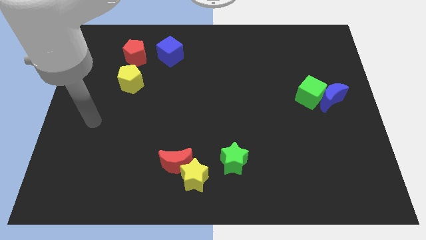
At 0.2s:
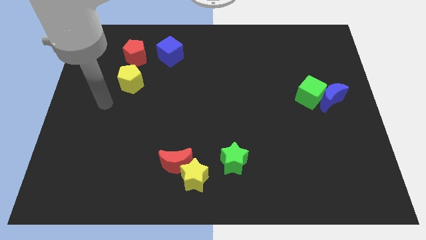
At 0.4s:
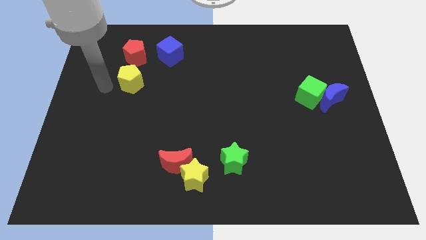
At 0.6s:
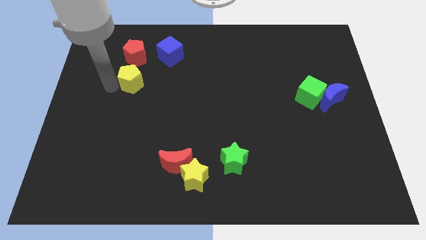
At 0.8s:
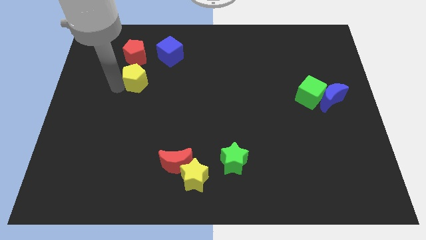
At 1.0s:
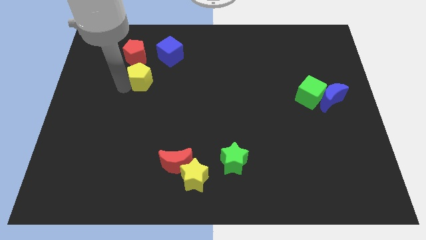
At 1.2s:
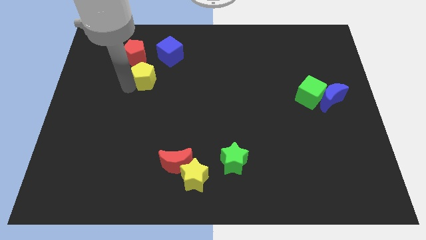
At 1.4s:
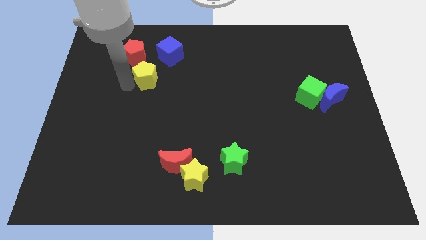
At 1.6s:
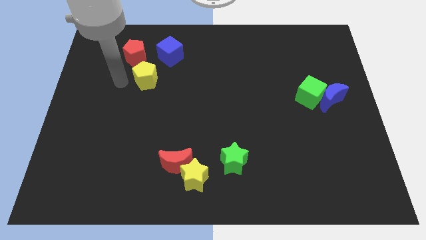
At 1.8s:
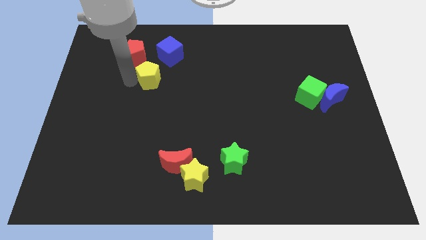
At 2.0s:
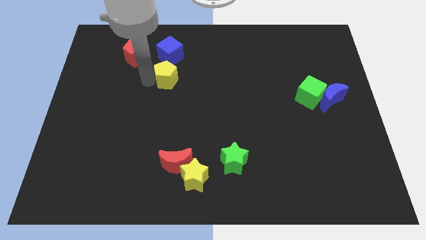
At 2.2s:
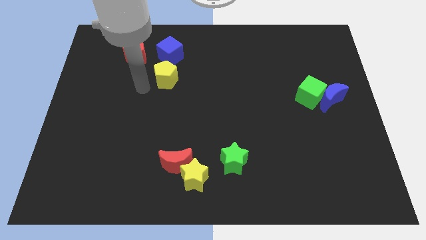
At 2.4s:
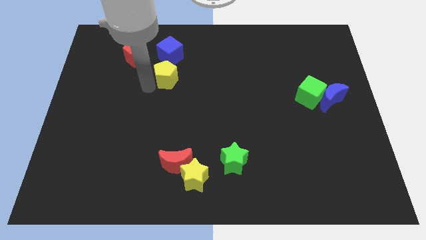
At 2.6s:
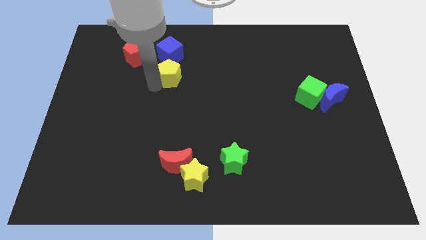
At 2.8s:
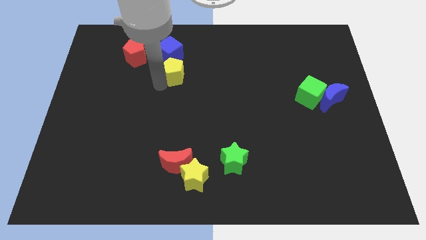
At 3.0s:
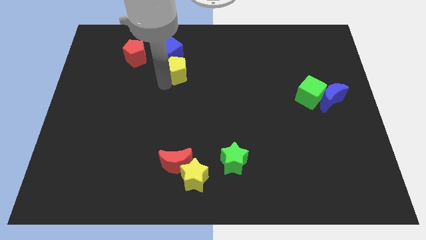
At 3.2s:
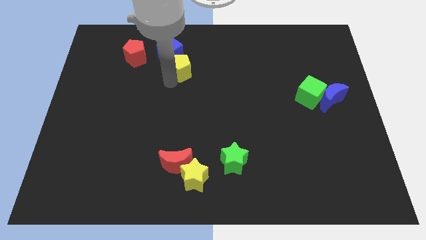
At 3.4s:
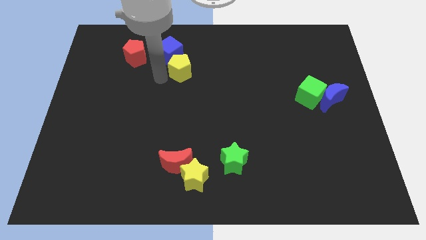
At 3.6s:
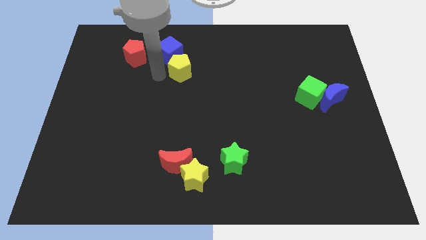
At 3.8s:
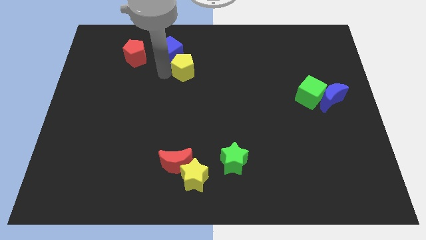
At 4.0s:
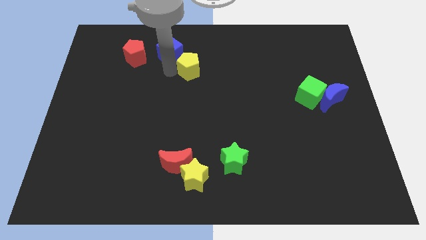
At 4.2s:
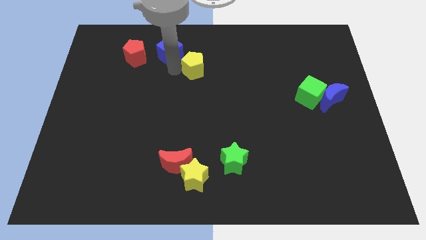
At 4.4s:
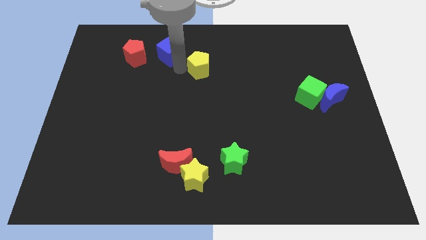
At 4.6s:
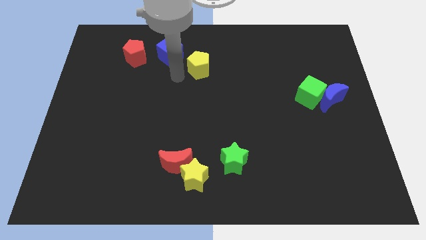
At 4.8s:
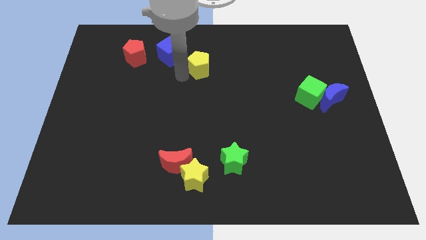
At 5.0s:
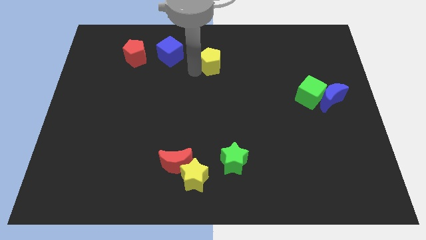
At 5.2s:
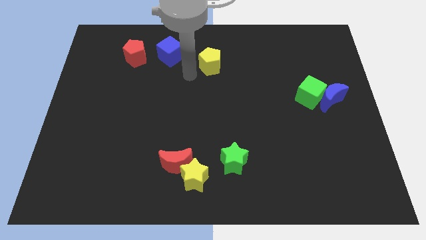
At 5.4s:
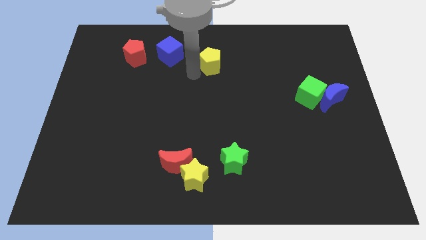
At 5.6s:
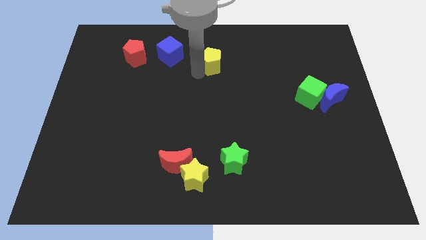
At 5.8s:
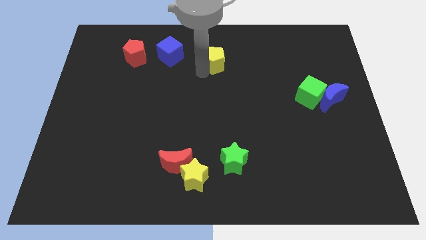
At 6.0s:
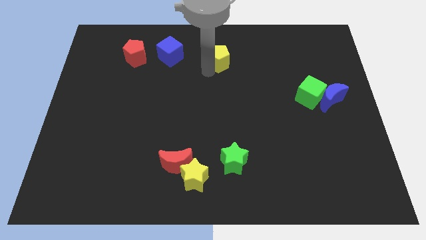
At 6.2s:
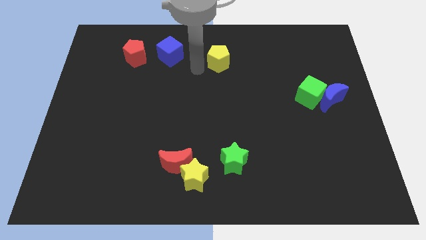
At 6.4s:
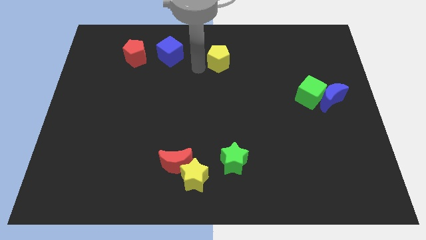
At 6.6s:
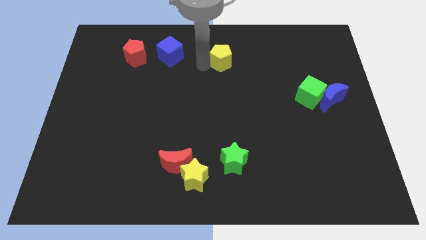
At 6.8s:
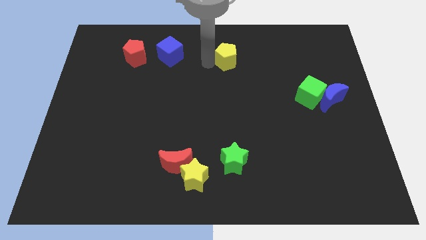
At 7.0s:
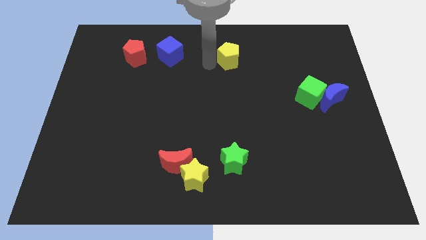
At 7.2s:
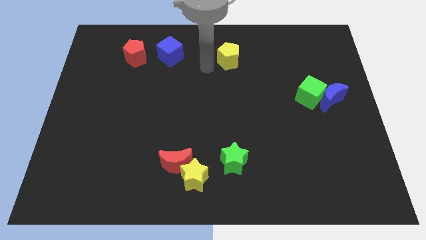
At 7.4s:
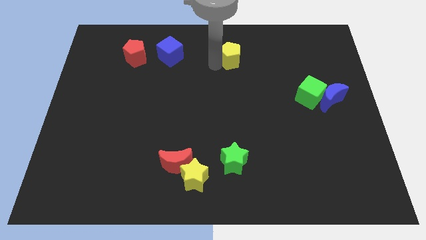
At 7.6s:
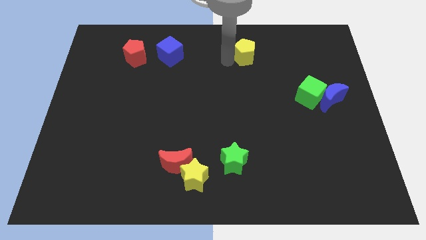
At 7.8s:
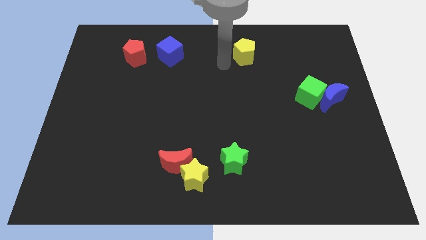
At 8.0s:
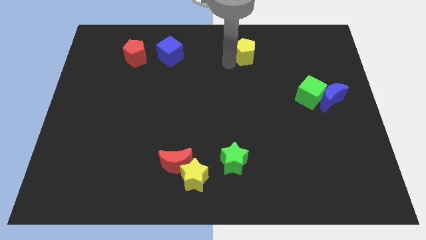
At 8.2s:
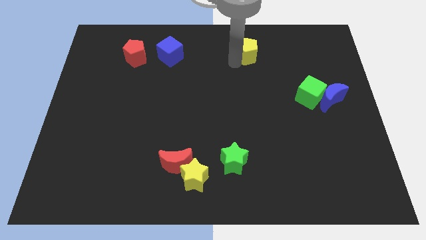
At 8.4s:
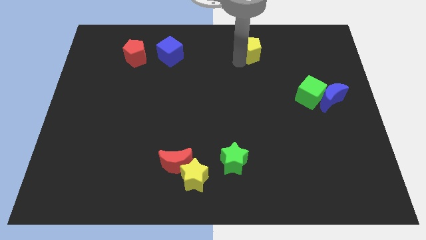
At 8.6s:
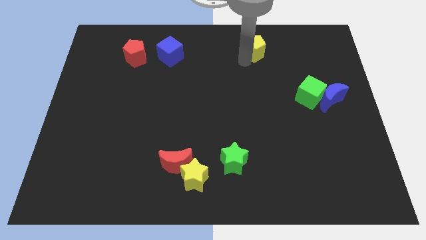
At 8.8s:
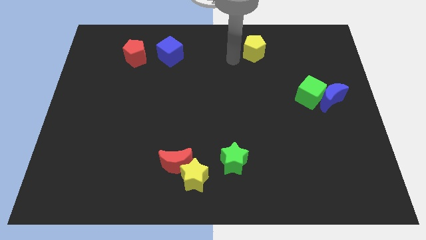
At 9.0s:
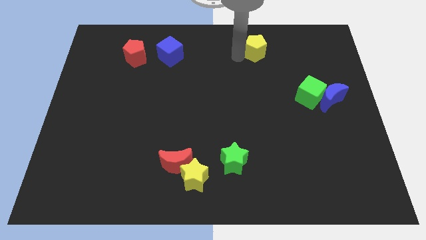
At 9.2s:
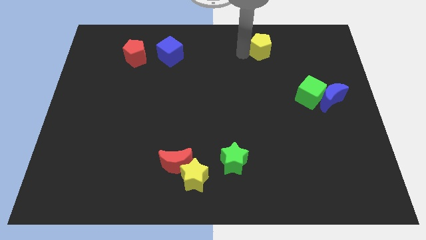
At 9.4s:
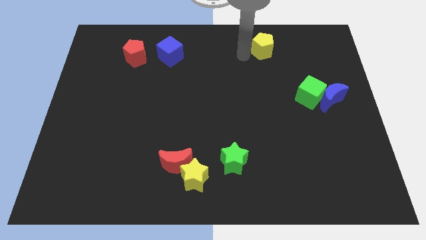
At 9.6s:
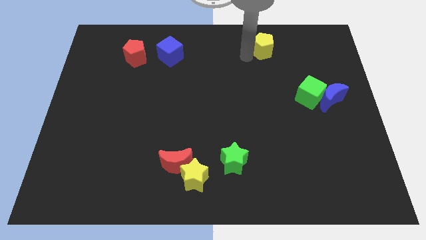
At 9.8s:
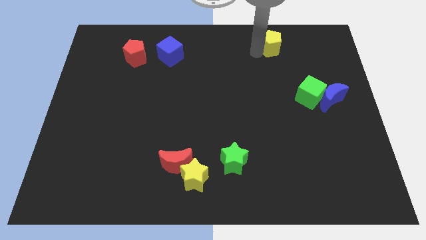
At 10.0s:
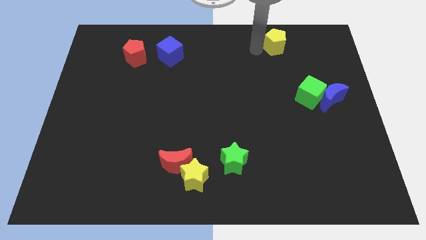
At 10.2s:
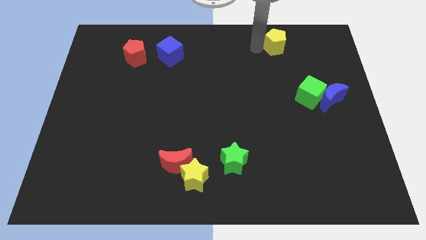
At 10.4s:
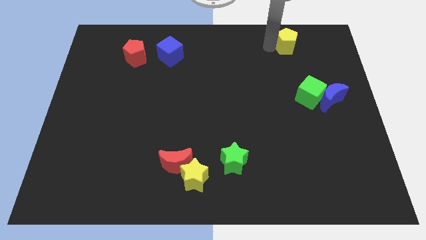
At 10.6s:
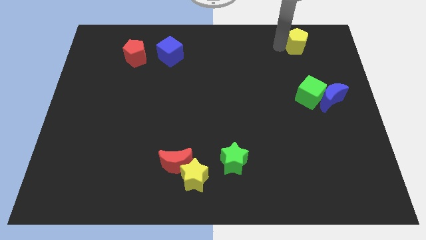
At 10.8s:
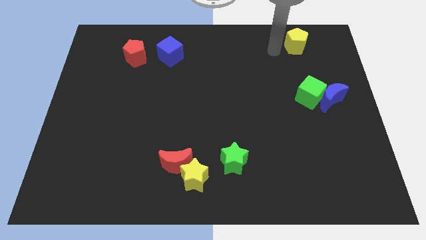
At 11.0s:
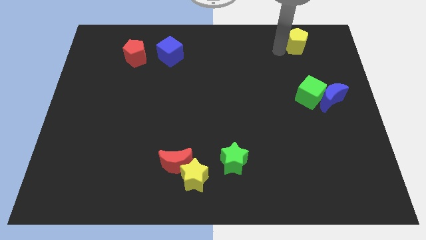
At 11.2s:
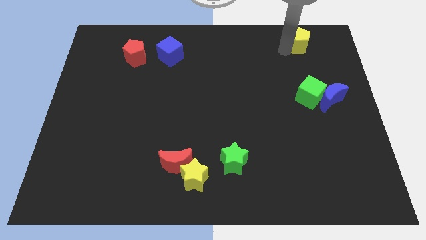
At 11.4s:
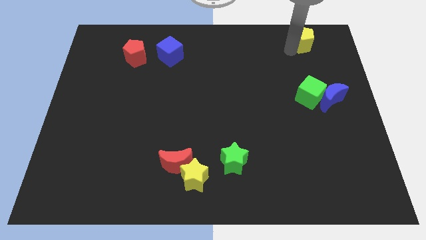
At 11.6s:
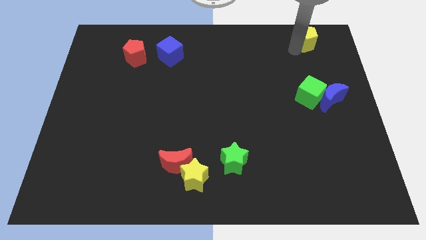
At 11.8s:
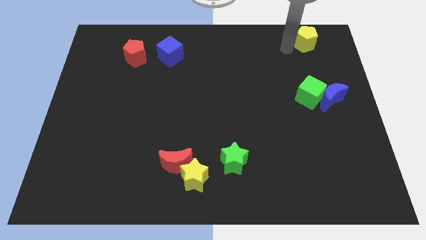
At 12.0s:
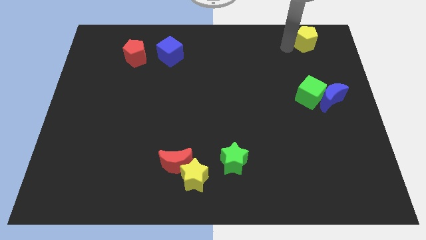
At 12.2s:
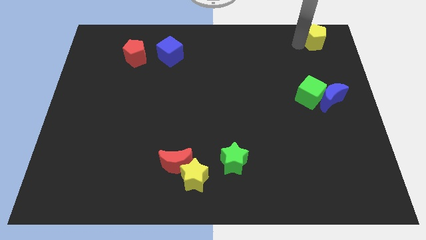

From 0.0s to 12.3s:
push the yellow pentagon to the top right
